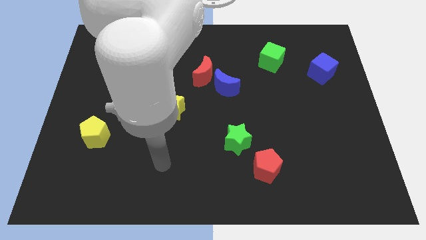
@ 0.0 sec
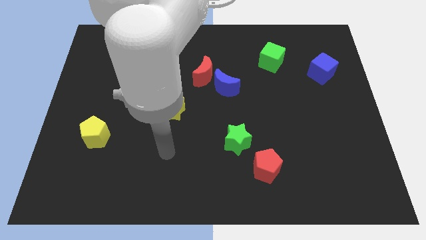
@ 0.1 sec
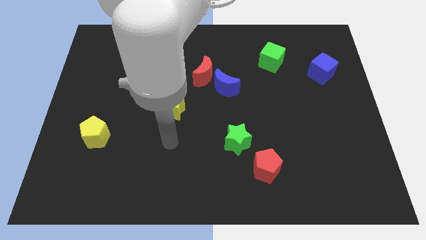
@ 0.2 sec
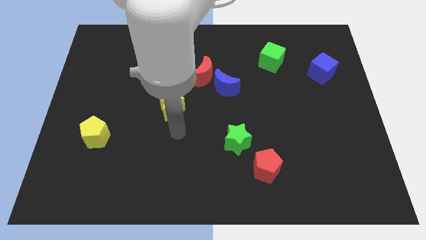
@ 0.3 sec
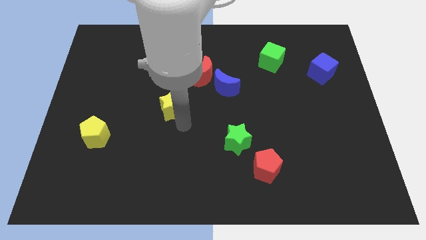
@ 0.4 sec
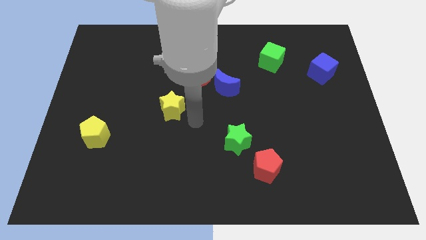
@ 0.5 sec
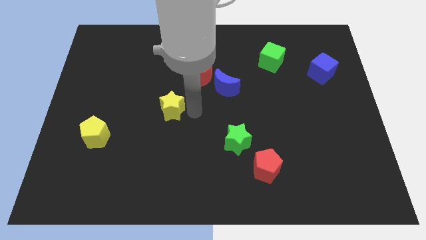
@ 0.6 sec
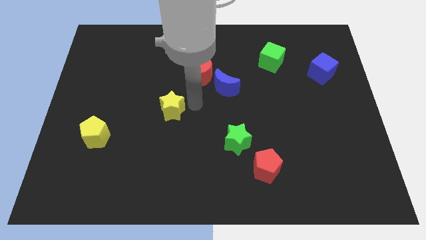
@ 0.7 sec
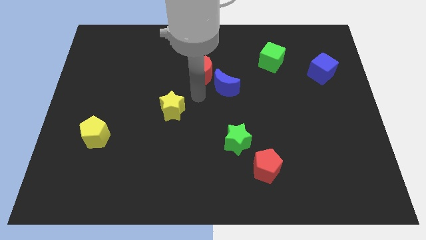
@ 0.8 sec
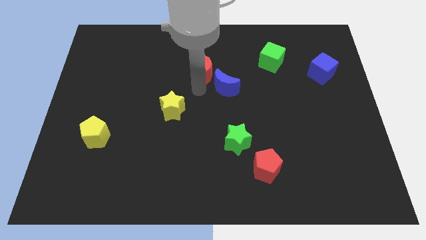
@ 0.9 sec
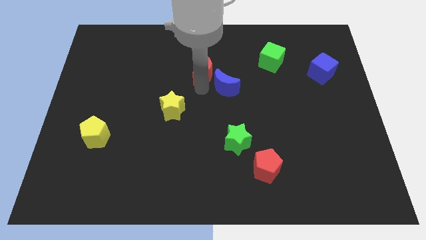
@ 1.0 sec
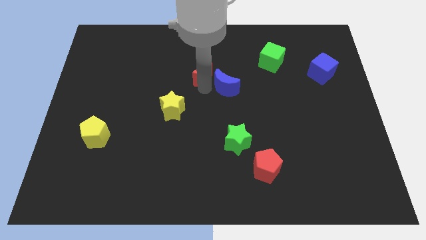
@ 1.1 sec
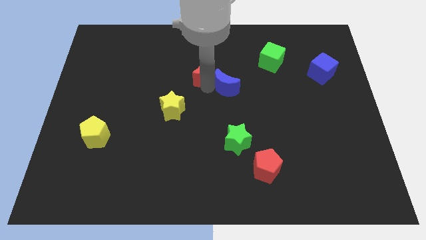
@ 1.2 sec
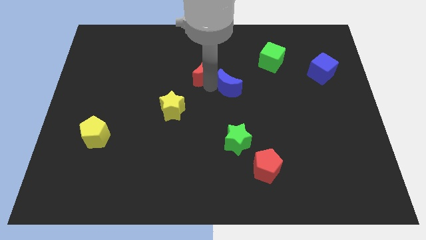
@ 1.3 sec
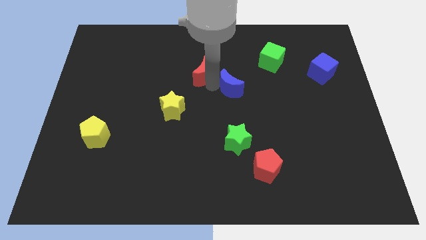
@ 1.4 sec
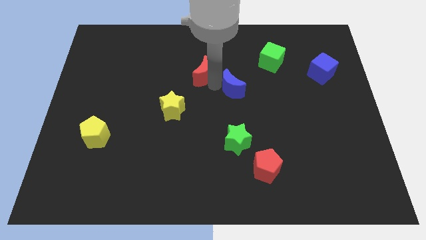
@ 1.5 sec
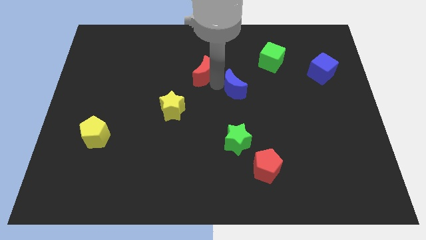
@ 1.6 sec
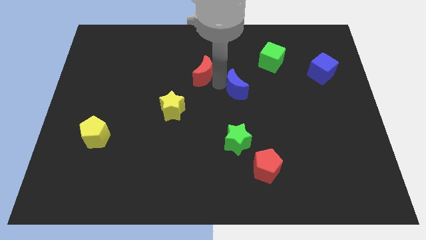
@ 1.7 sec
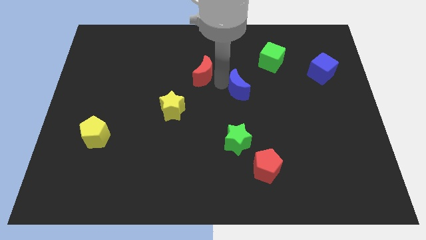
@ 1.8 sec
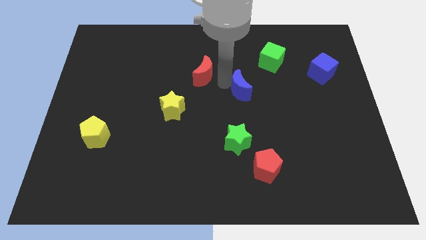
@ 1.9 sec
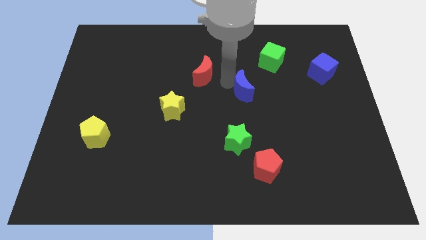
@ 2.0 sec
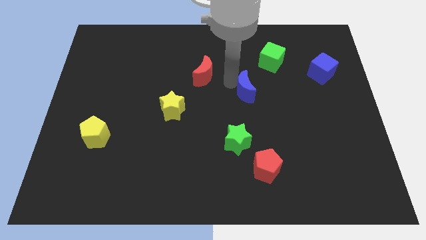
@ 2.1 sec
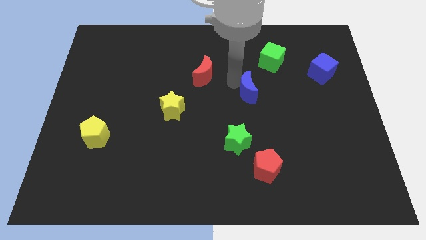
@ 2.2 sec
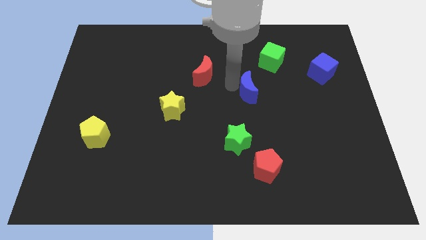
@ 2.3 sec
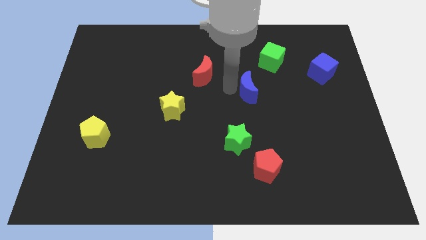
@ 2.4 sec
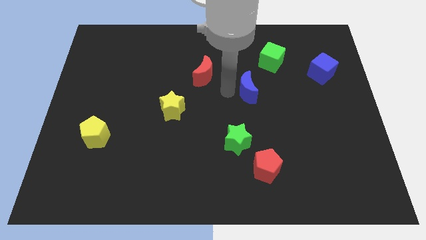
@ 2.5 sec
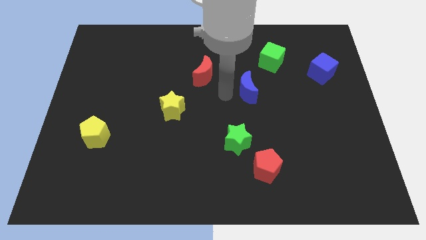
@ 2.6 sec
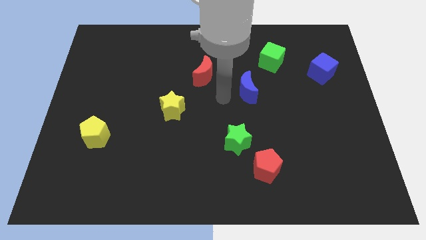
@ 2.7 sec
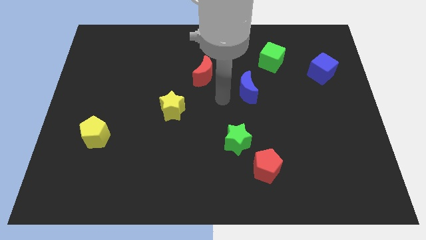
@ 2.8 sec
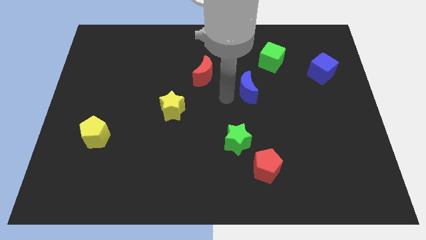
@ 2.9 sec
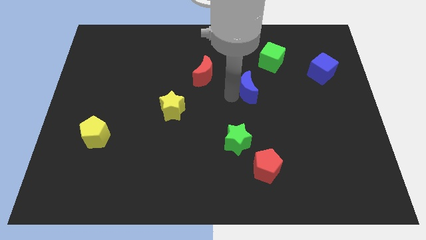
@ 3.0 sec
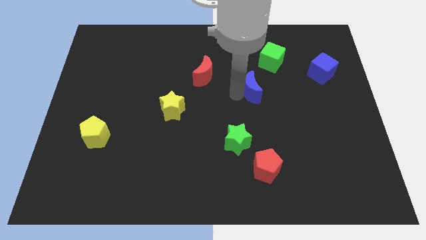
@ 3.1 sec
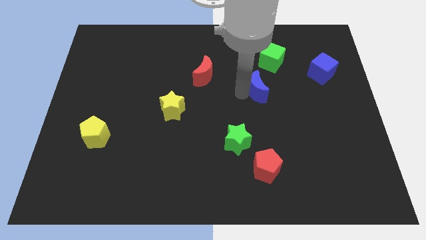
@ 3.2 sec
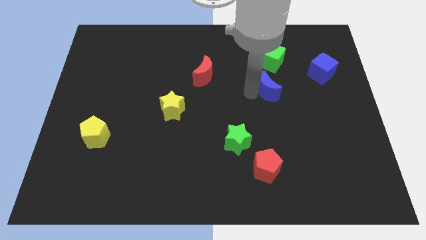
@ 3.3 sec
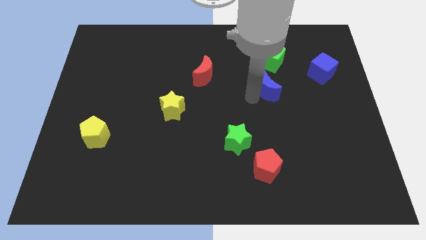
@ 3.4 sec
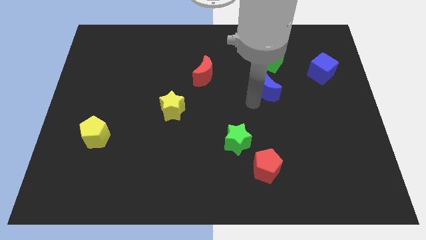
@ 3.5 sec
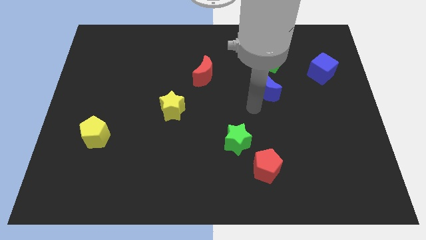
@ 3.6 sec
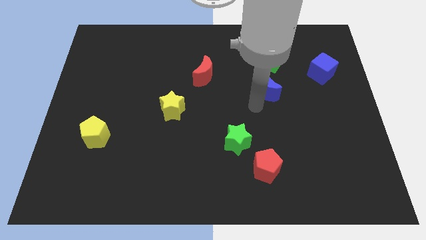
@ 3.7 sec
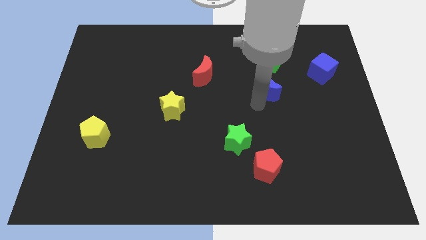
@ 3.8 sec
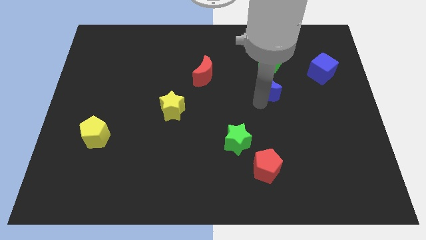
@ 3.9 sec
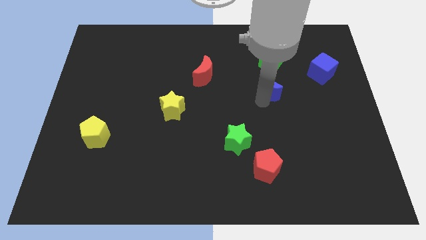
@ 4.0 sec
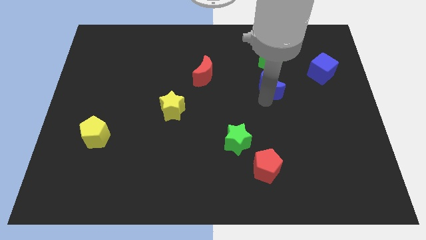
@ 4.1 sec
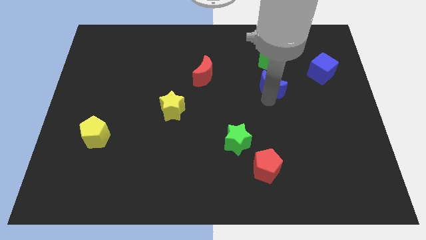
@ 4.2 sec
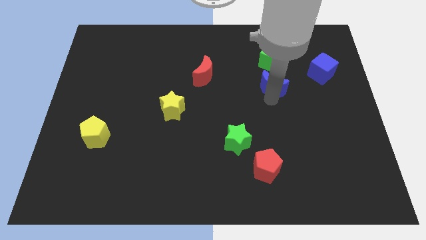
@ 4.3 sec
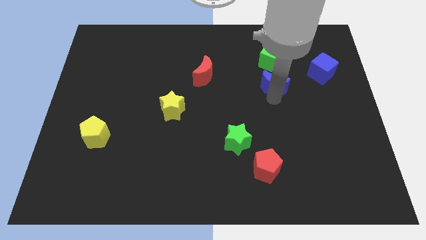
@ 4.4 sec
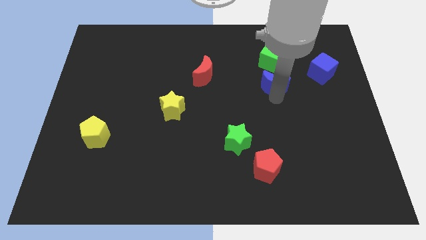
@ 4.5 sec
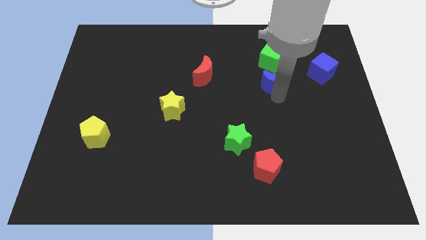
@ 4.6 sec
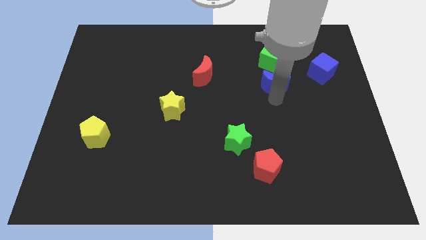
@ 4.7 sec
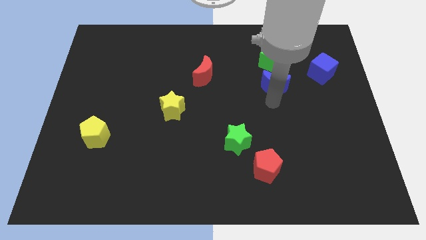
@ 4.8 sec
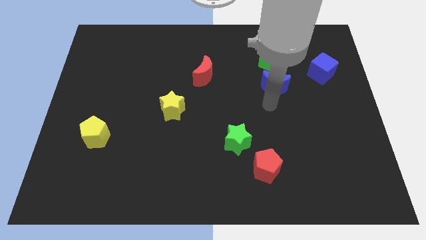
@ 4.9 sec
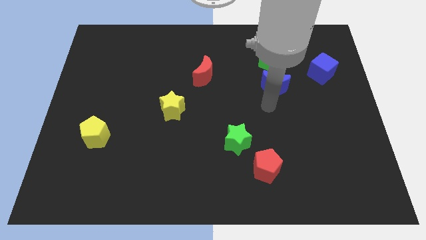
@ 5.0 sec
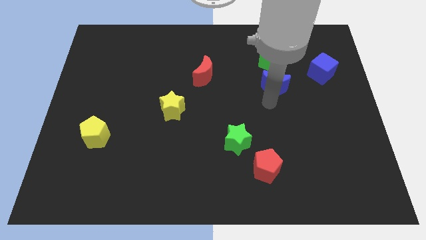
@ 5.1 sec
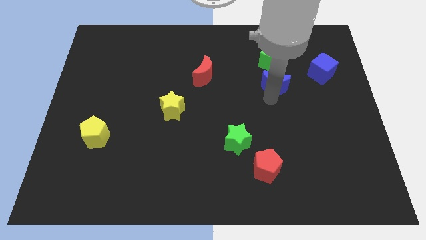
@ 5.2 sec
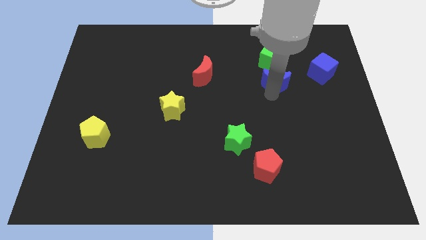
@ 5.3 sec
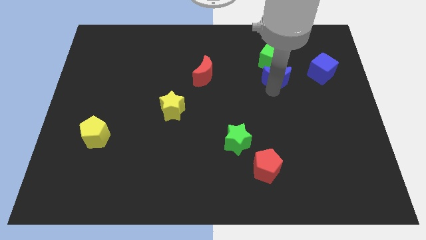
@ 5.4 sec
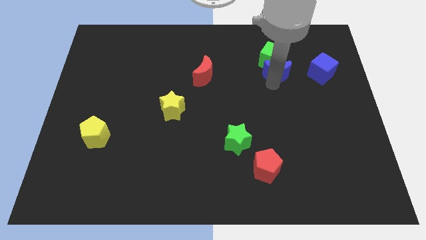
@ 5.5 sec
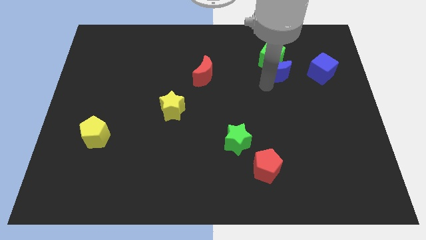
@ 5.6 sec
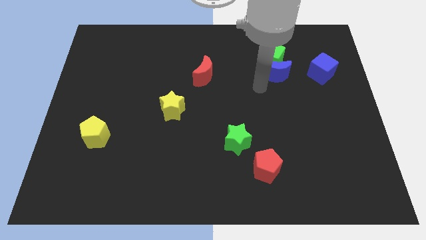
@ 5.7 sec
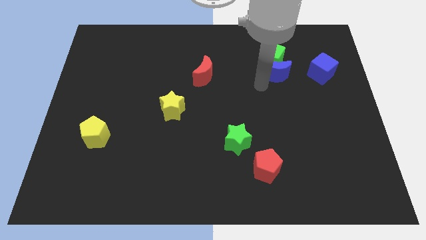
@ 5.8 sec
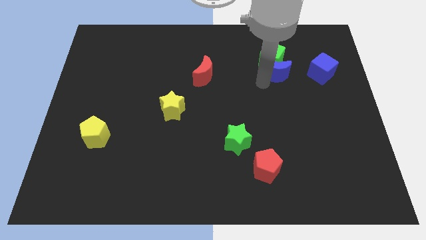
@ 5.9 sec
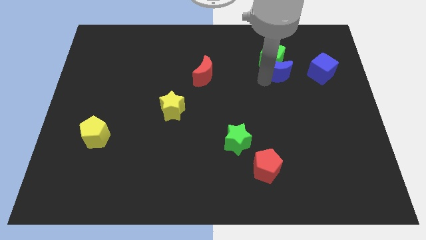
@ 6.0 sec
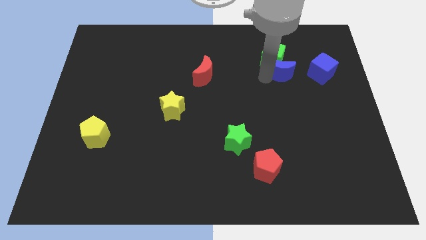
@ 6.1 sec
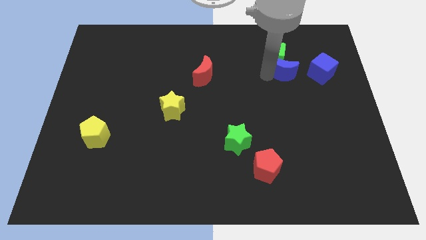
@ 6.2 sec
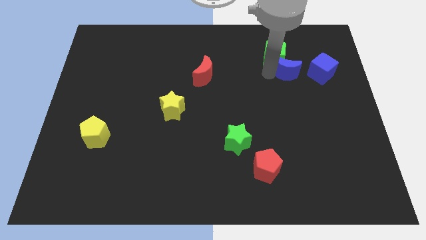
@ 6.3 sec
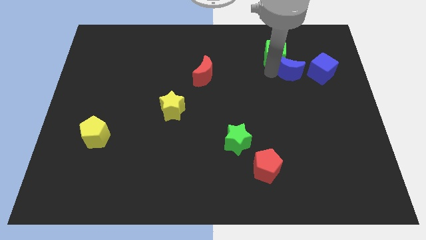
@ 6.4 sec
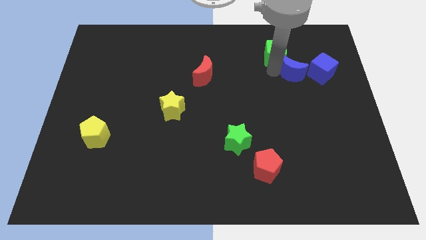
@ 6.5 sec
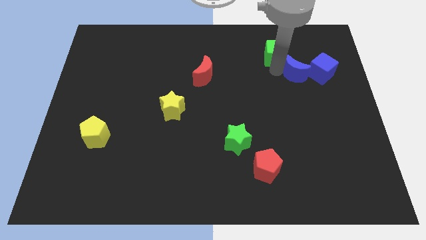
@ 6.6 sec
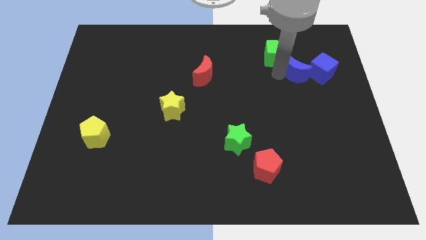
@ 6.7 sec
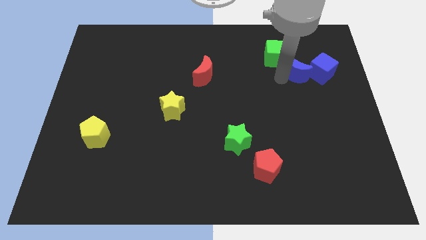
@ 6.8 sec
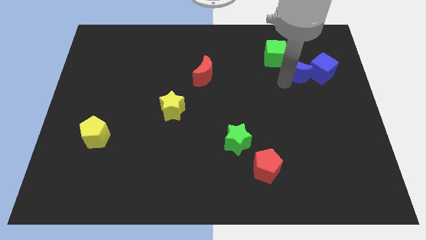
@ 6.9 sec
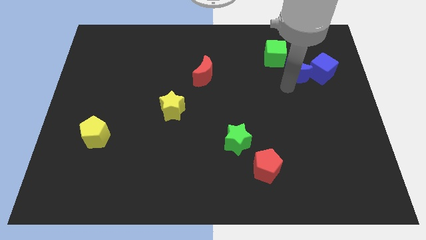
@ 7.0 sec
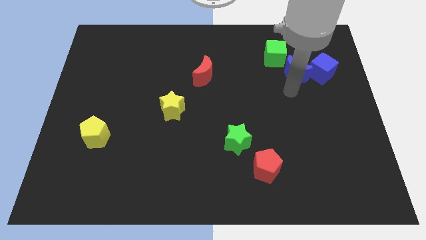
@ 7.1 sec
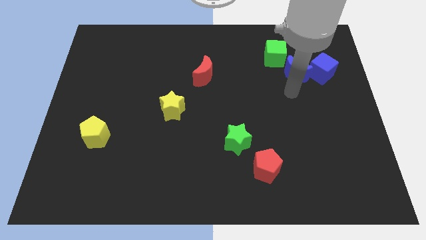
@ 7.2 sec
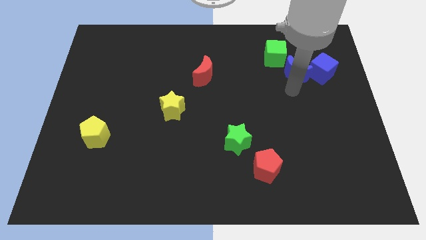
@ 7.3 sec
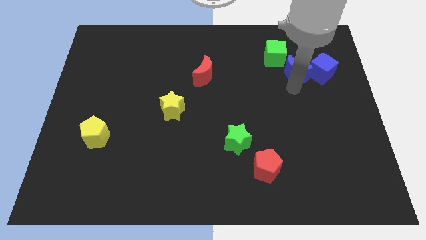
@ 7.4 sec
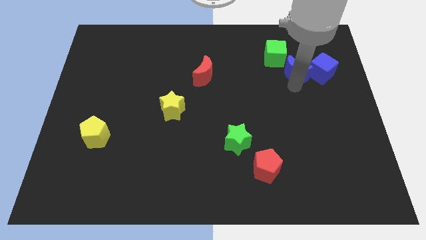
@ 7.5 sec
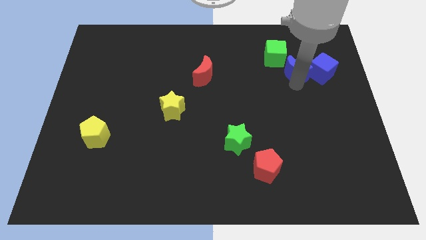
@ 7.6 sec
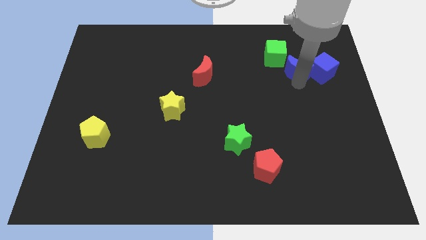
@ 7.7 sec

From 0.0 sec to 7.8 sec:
slide the blue moon to the top left side of the blue cube
